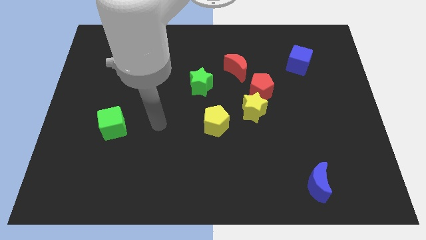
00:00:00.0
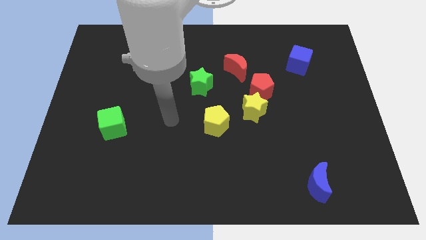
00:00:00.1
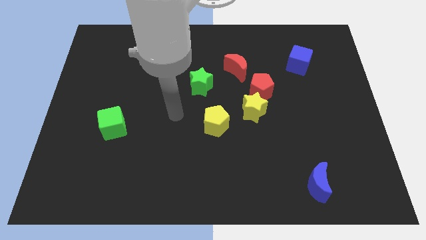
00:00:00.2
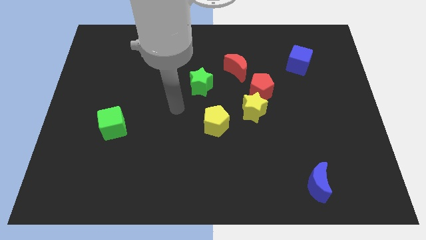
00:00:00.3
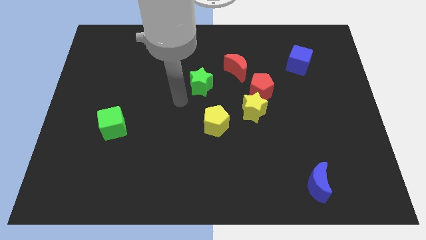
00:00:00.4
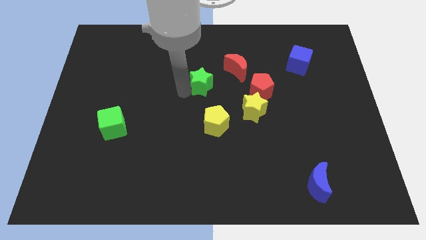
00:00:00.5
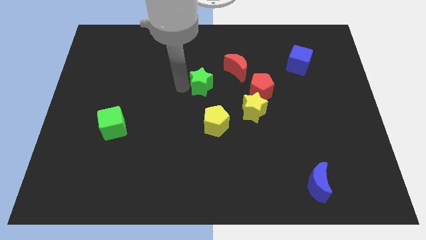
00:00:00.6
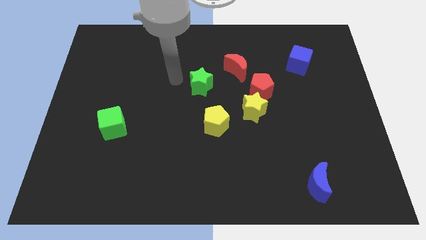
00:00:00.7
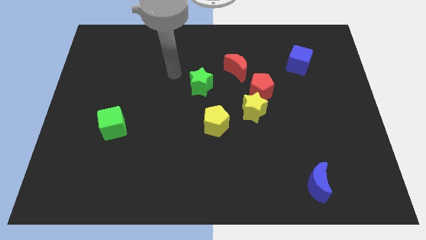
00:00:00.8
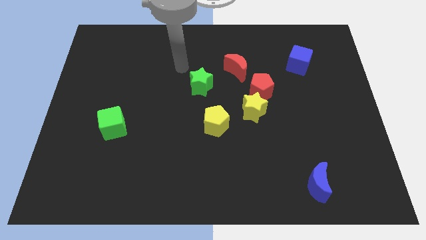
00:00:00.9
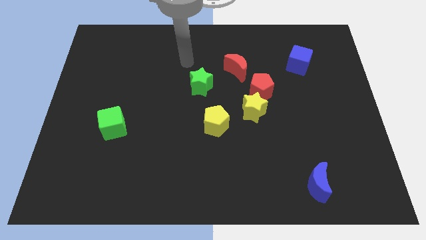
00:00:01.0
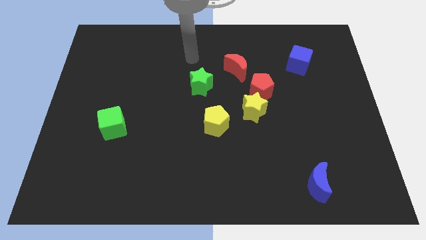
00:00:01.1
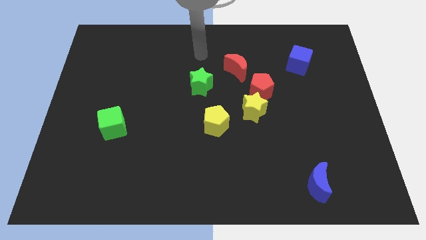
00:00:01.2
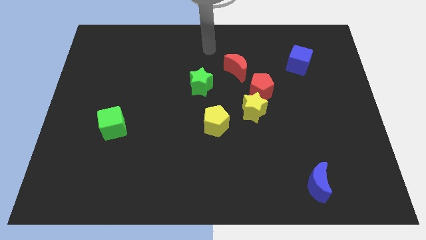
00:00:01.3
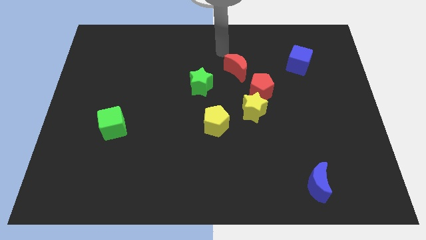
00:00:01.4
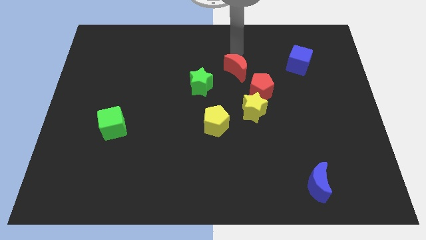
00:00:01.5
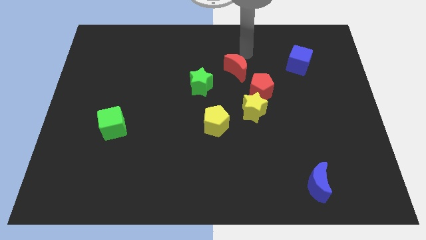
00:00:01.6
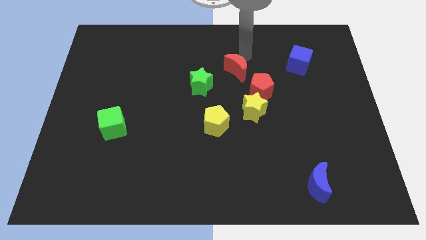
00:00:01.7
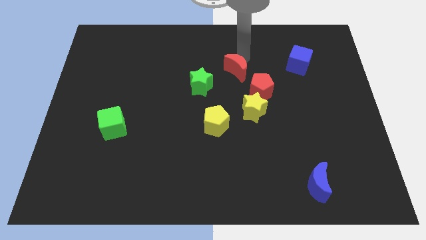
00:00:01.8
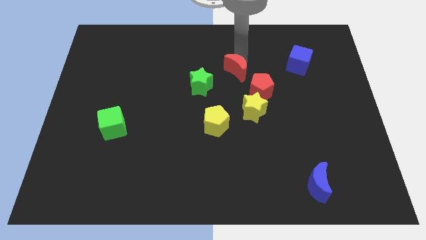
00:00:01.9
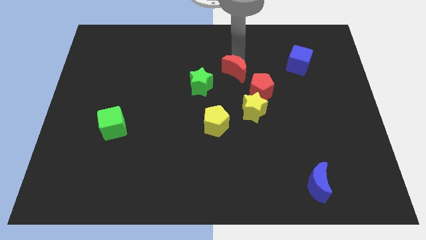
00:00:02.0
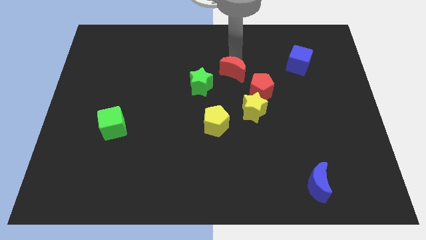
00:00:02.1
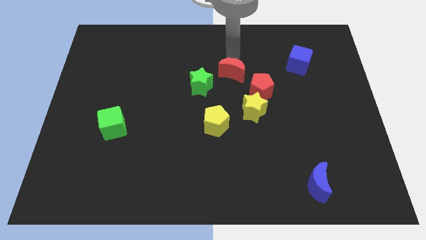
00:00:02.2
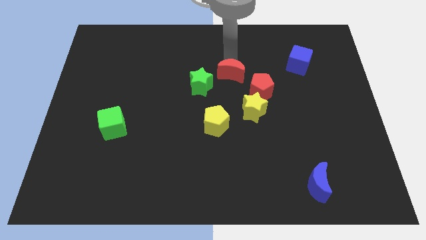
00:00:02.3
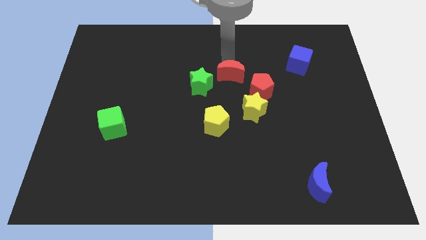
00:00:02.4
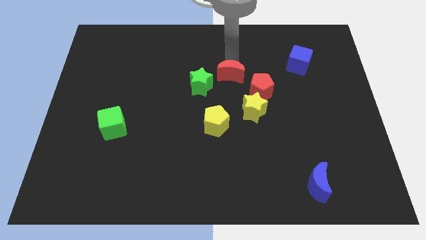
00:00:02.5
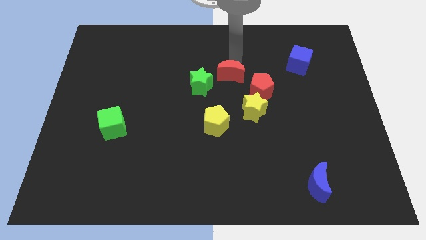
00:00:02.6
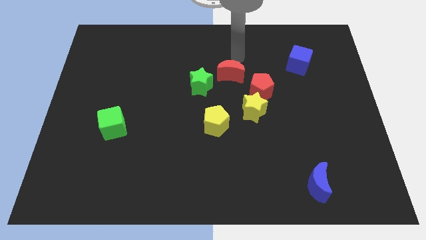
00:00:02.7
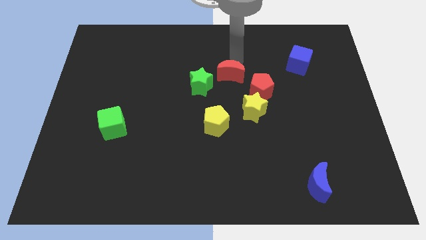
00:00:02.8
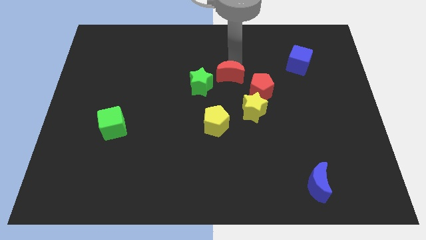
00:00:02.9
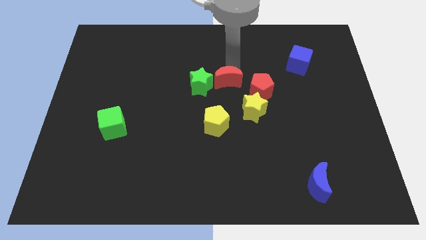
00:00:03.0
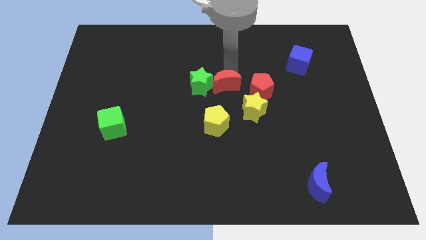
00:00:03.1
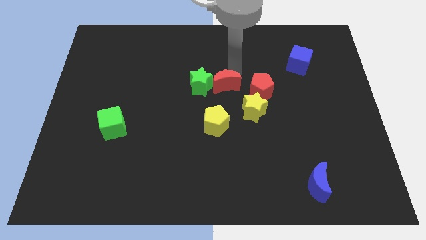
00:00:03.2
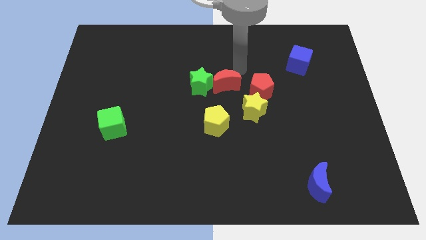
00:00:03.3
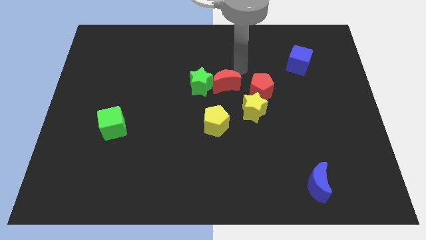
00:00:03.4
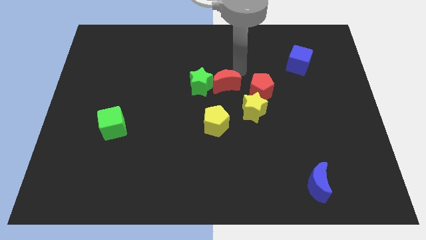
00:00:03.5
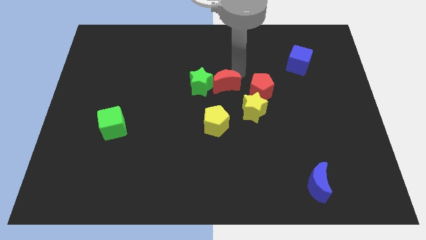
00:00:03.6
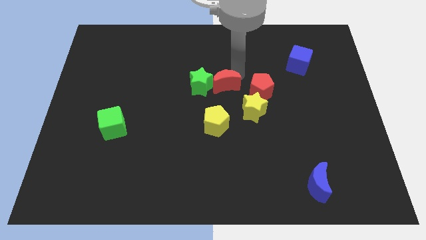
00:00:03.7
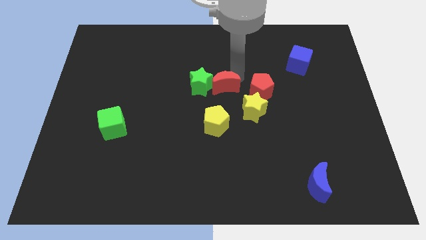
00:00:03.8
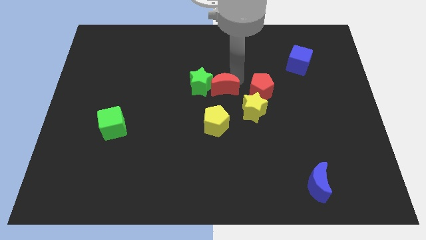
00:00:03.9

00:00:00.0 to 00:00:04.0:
move the red moon a little diagonally down and to the left

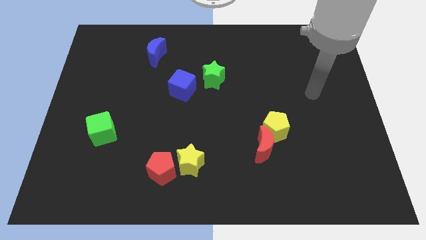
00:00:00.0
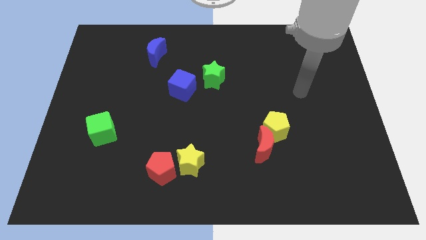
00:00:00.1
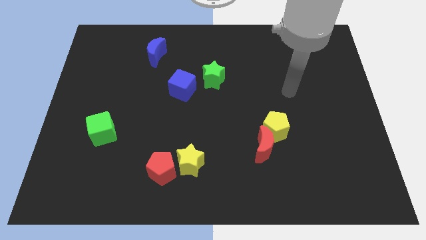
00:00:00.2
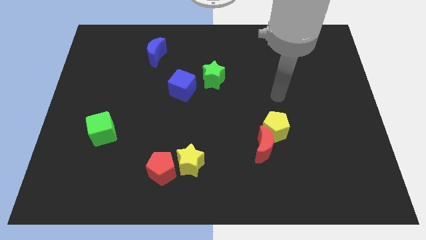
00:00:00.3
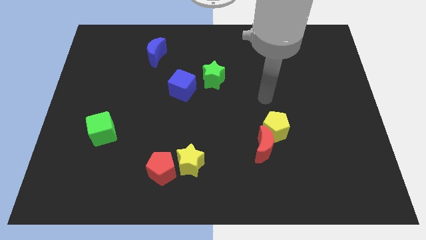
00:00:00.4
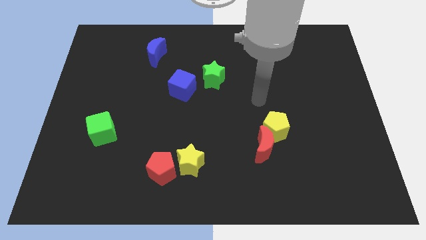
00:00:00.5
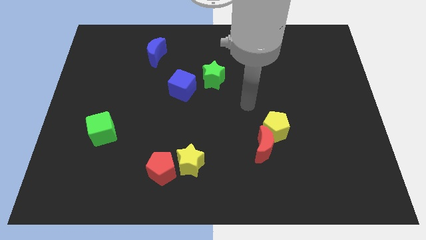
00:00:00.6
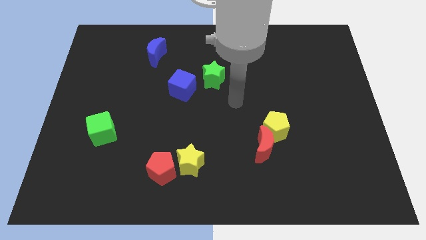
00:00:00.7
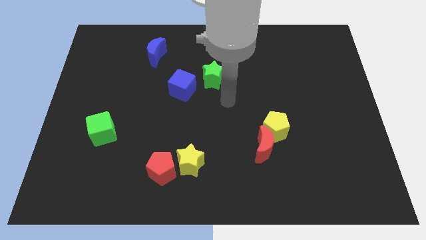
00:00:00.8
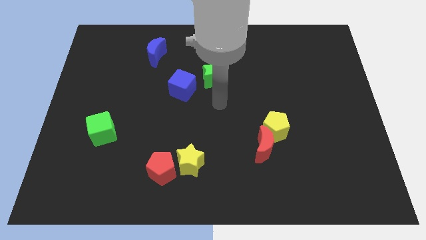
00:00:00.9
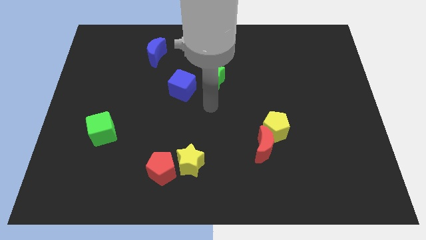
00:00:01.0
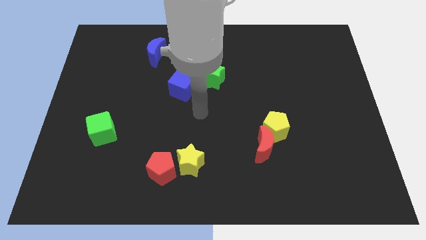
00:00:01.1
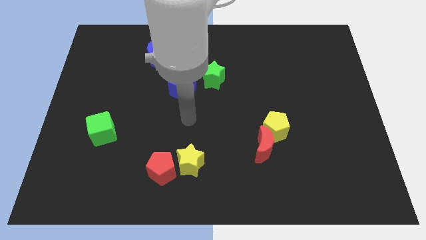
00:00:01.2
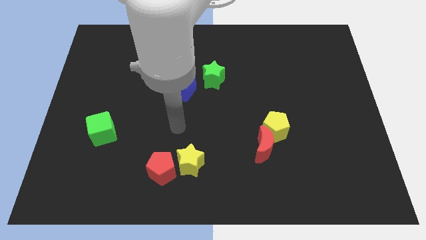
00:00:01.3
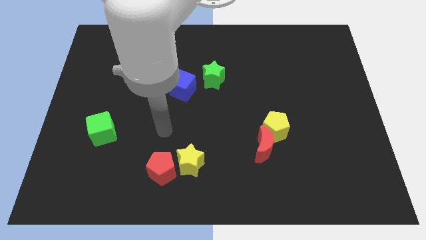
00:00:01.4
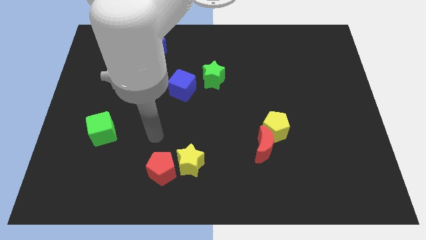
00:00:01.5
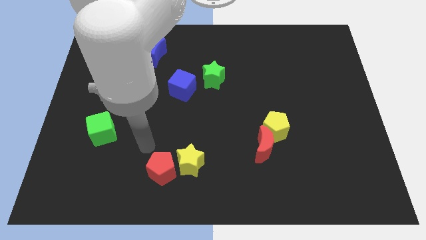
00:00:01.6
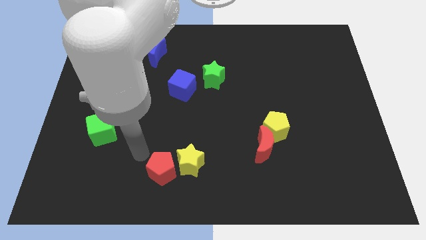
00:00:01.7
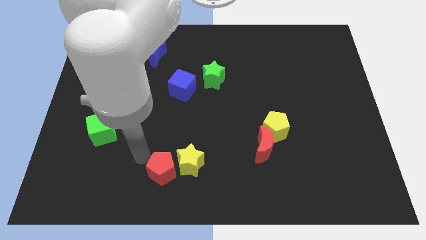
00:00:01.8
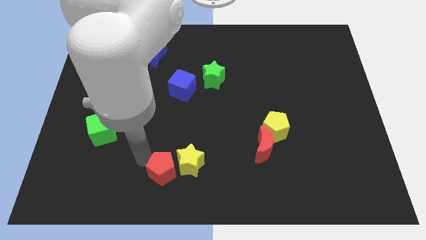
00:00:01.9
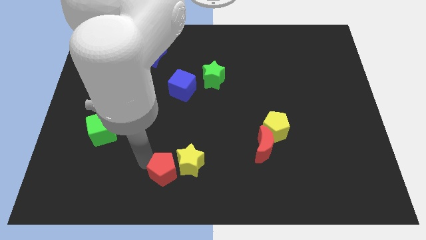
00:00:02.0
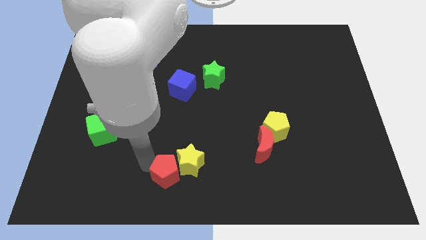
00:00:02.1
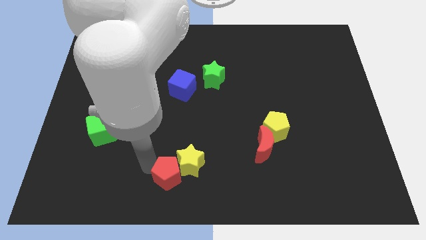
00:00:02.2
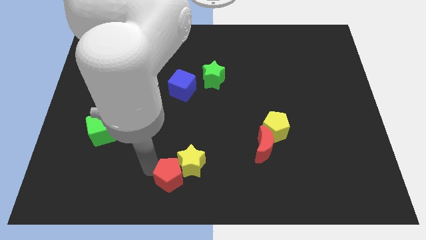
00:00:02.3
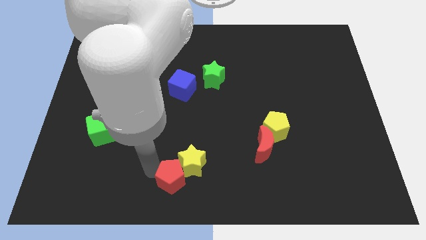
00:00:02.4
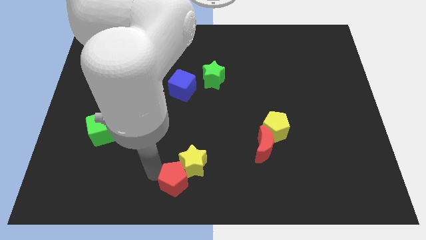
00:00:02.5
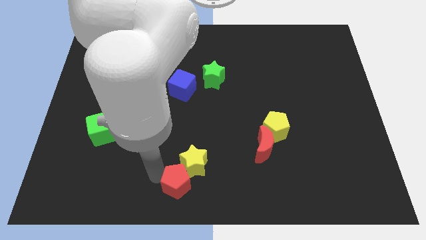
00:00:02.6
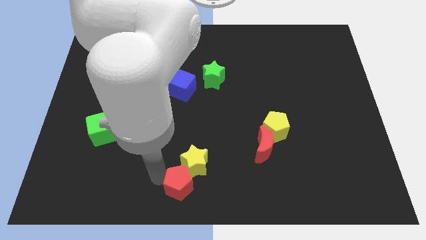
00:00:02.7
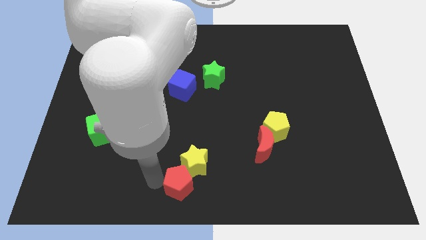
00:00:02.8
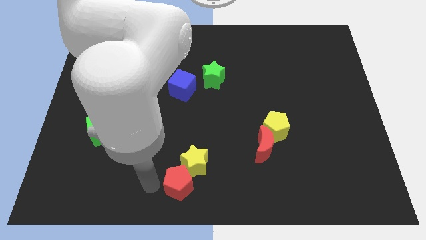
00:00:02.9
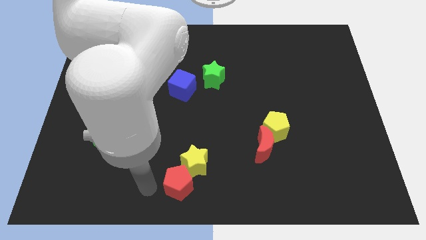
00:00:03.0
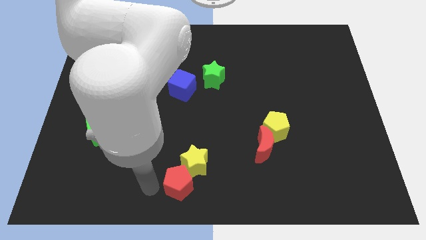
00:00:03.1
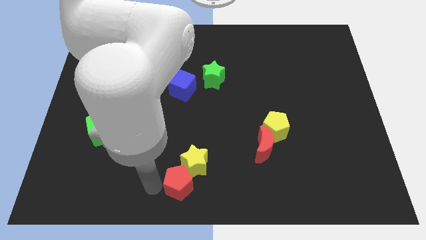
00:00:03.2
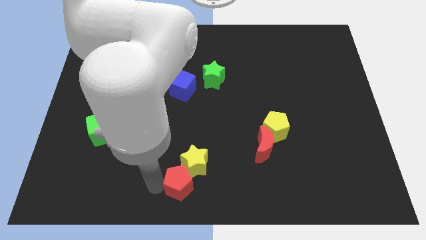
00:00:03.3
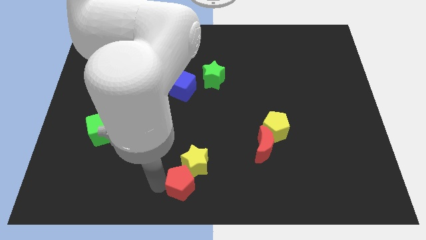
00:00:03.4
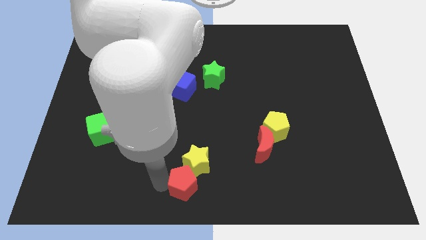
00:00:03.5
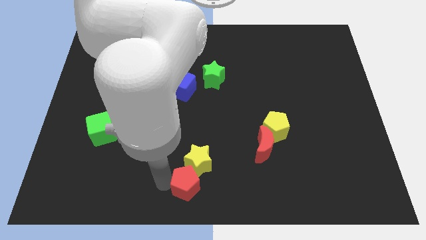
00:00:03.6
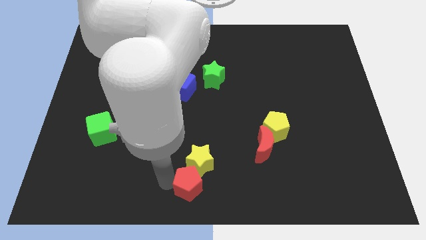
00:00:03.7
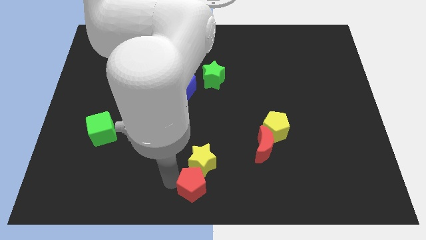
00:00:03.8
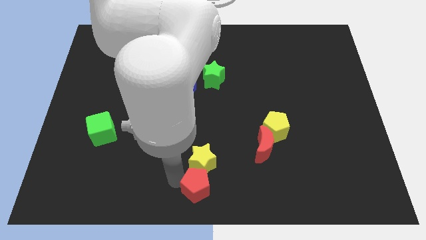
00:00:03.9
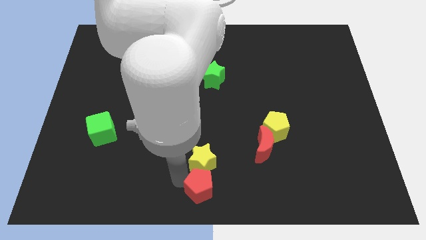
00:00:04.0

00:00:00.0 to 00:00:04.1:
push the red pentagon right slightly
